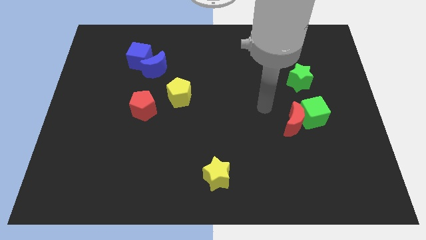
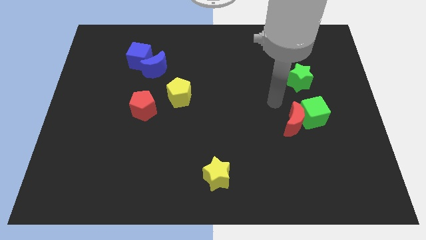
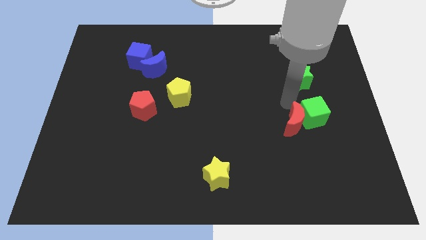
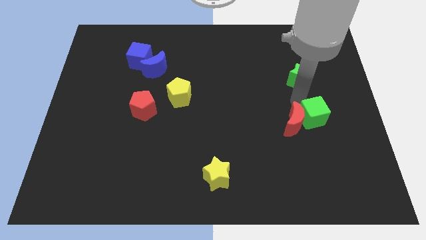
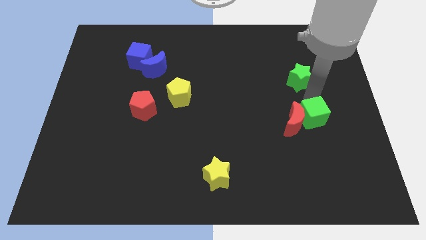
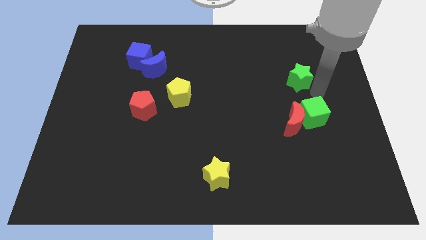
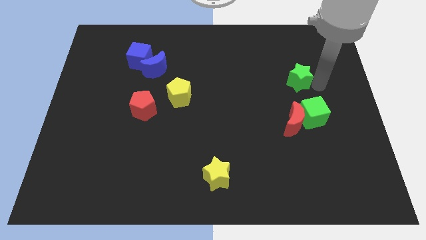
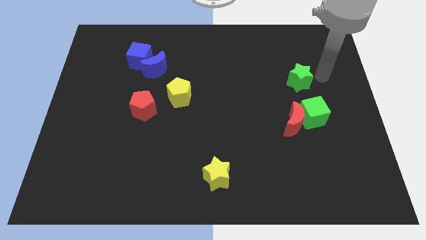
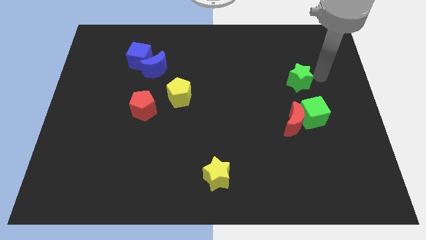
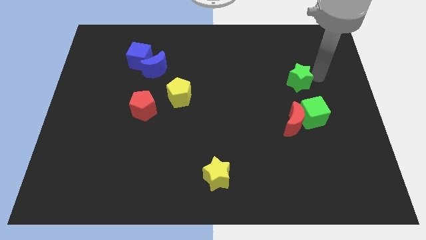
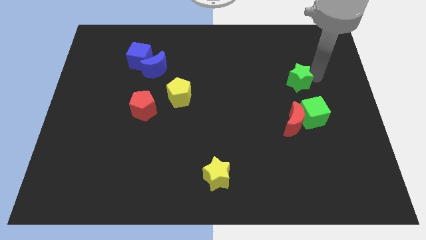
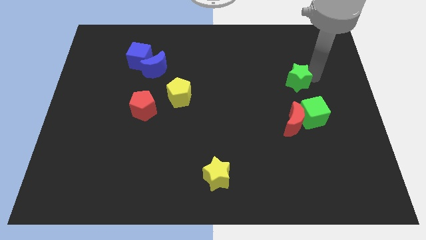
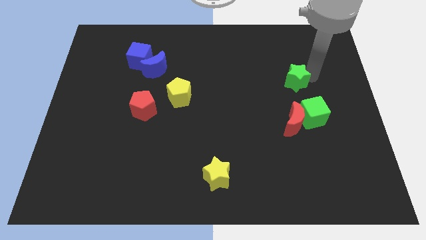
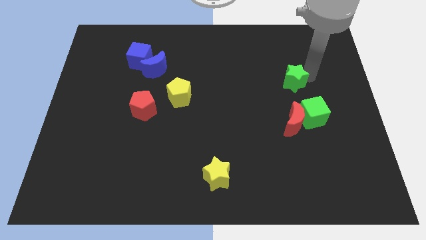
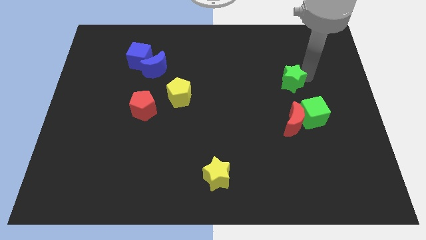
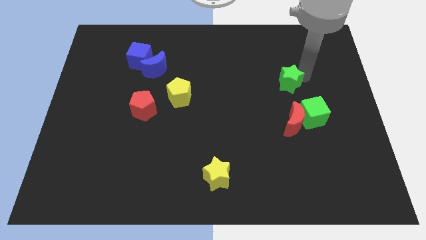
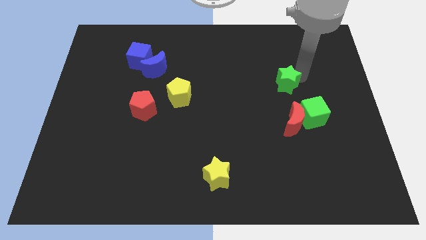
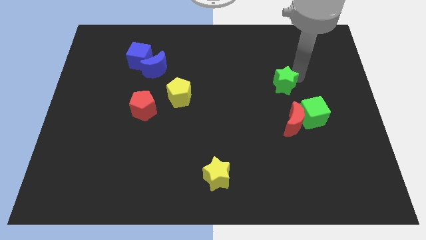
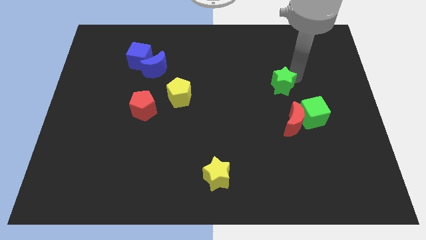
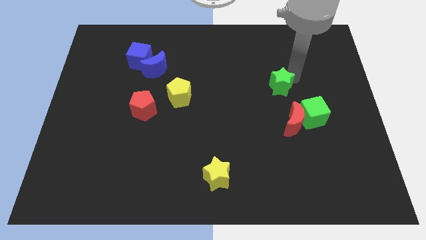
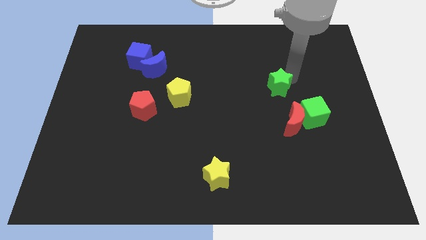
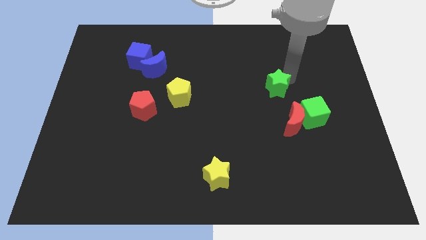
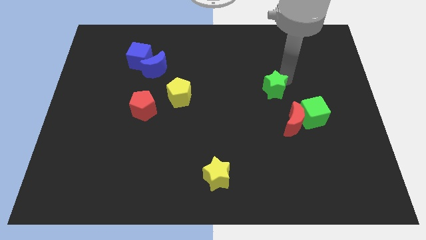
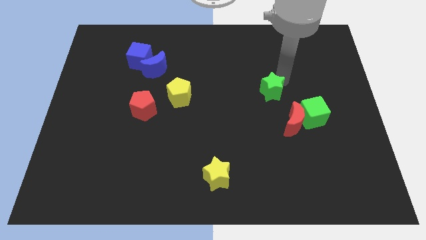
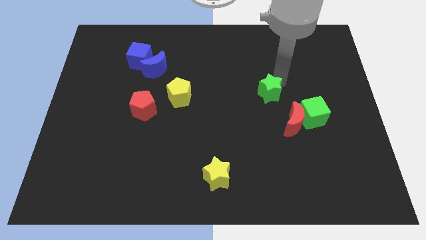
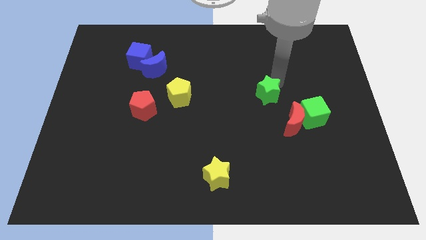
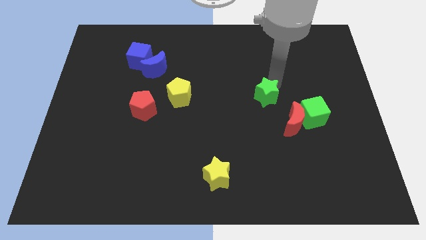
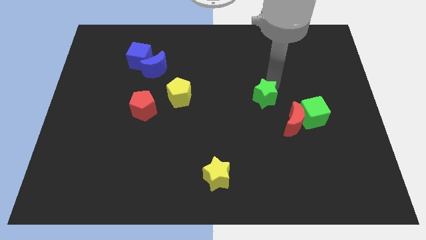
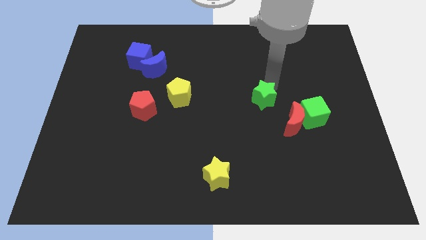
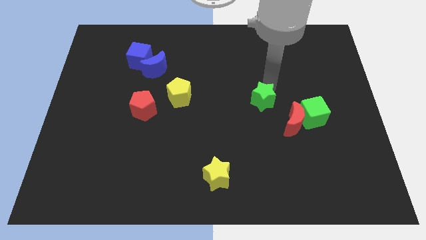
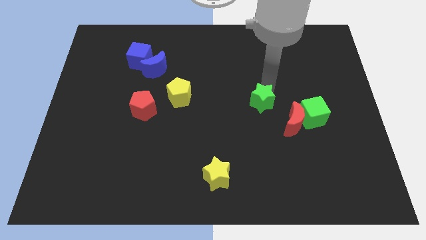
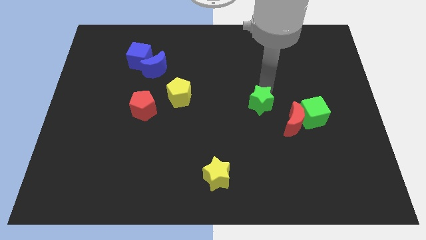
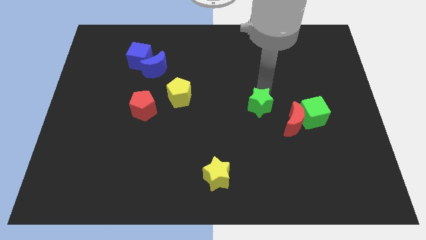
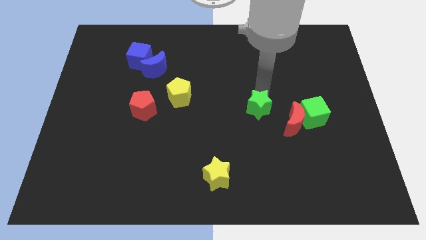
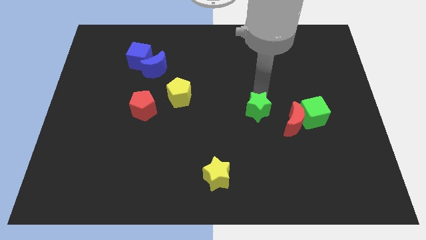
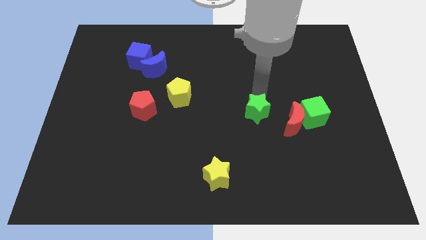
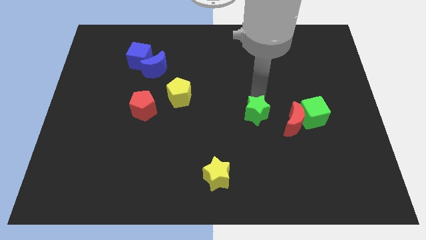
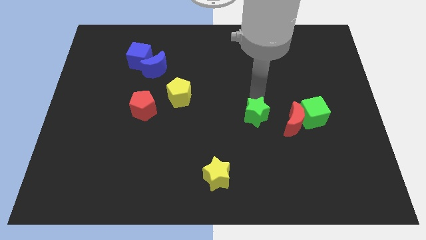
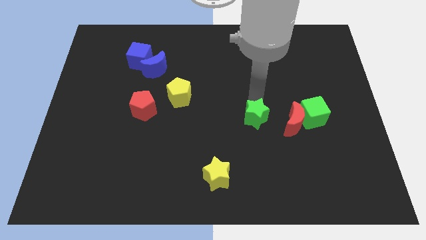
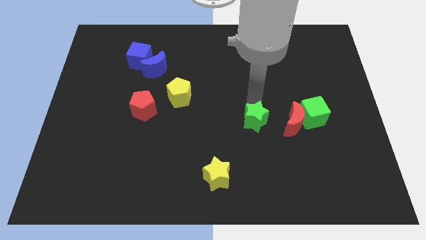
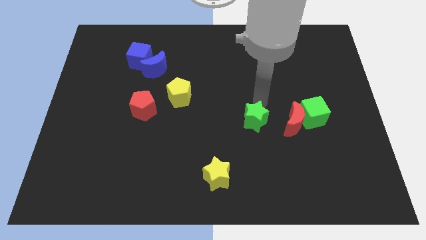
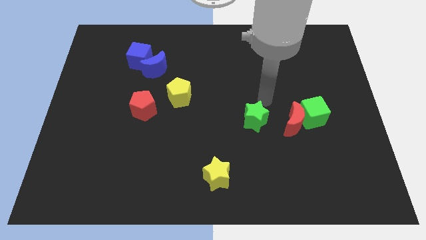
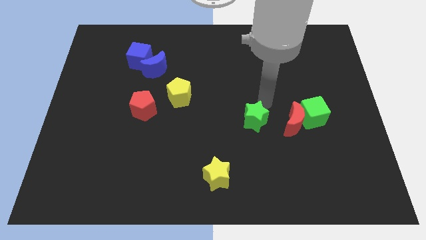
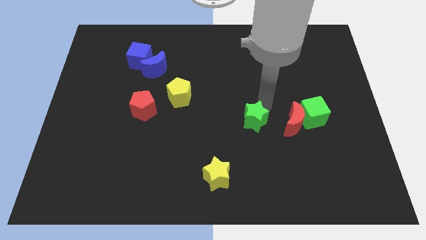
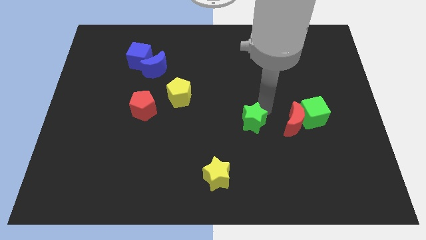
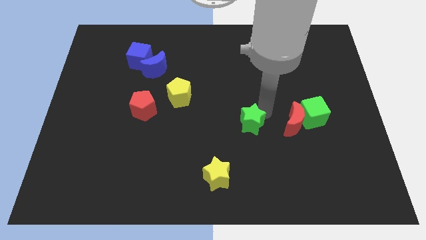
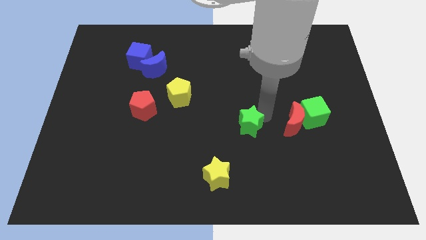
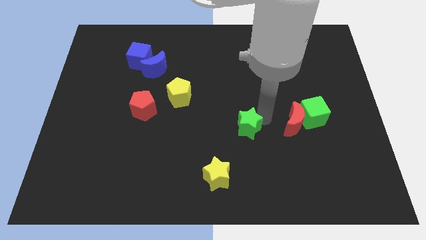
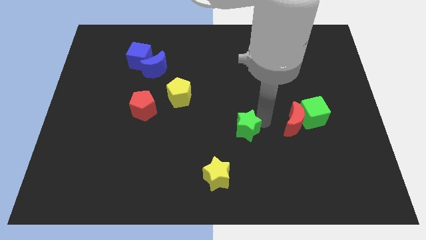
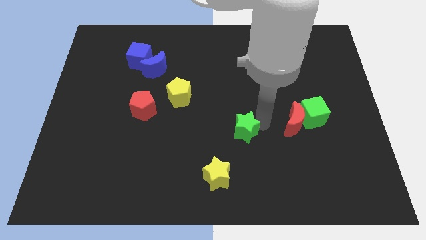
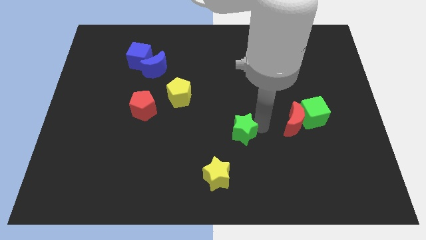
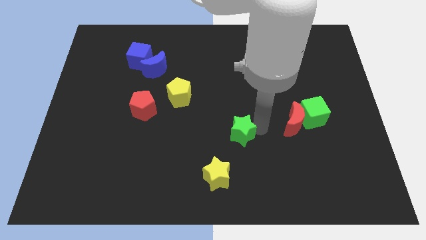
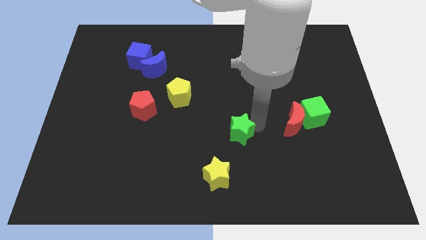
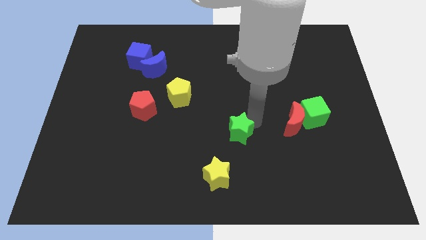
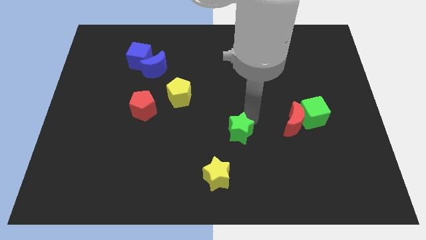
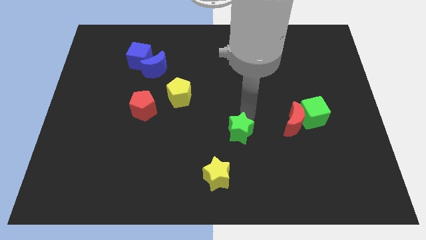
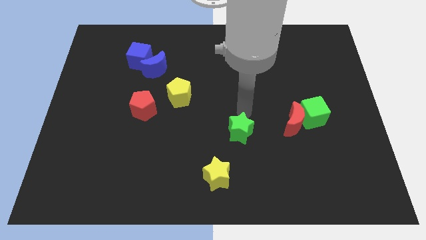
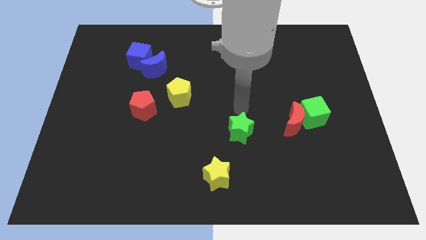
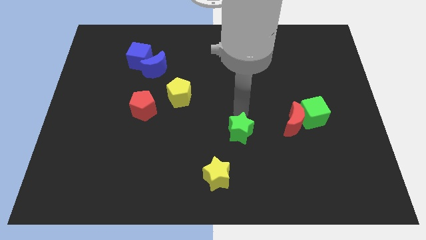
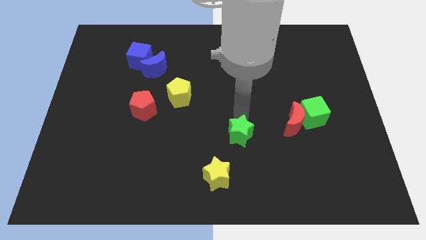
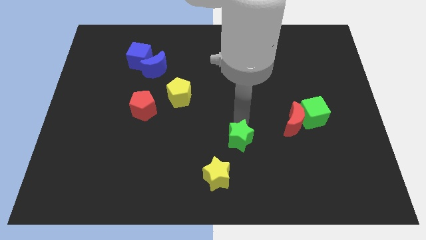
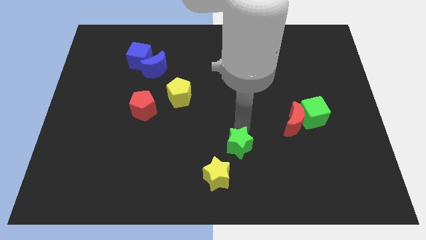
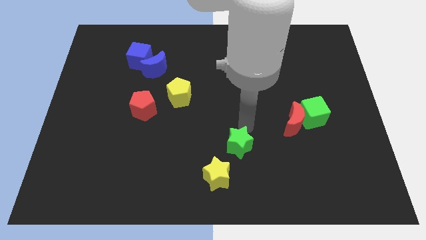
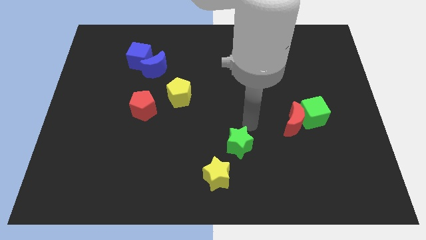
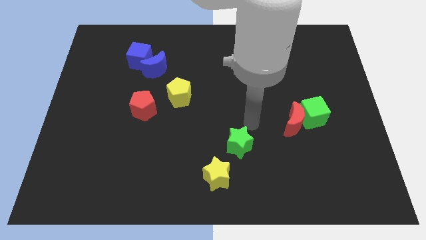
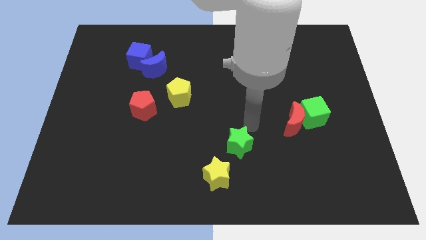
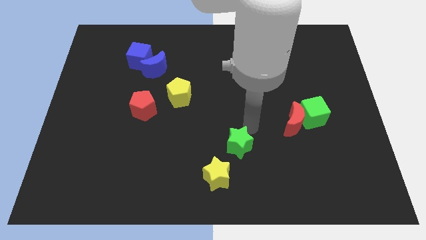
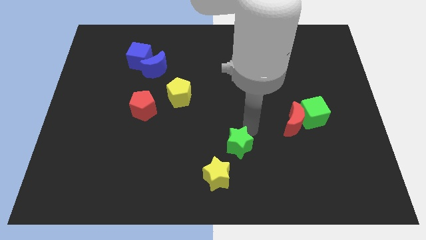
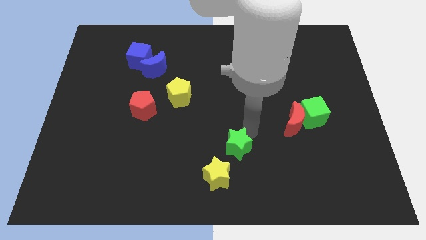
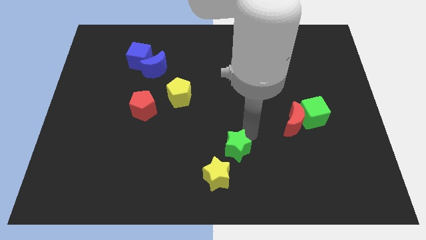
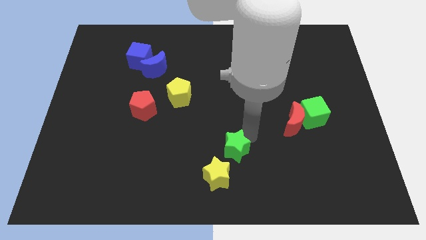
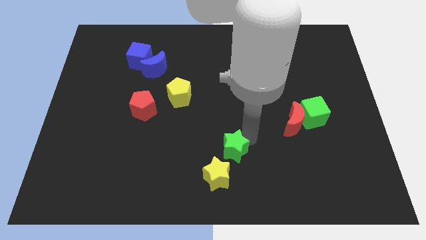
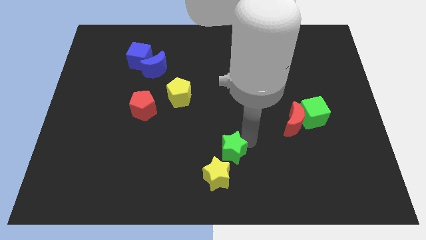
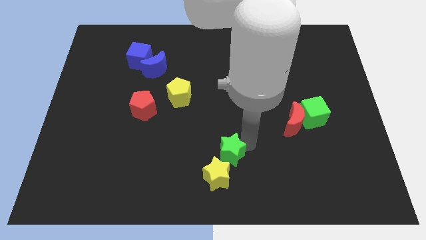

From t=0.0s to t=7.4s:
move the green star to the yellow star
